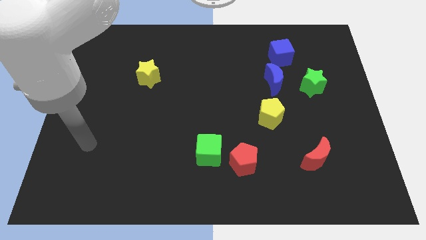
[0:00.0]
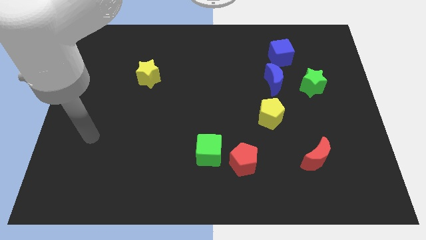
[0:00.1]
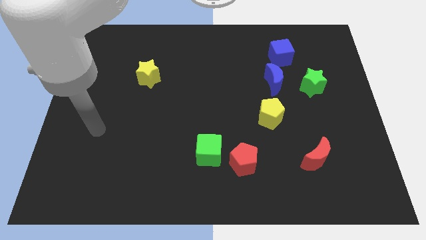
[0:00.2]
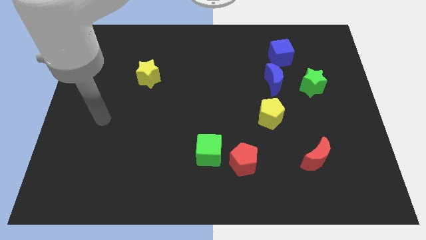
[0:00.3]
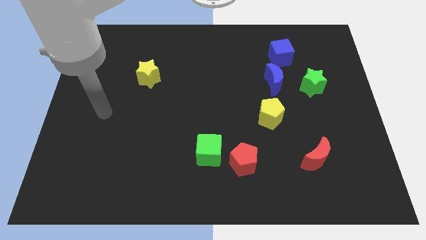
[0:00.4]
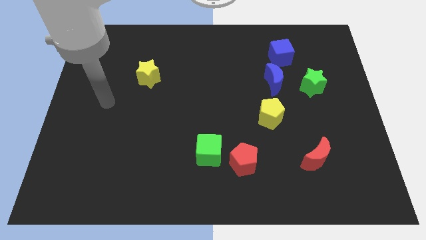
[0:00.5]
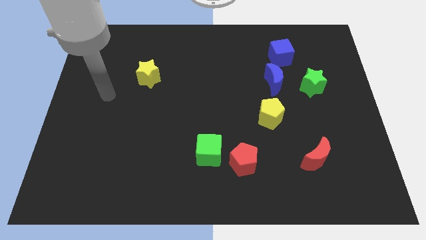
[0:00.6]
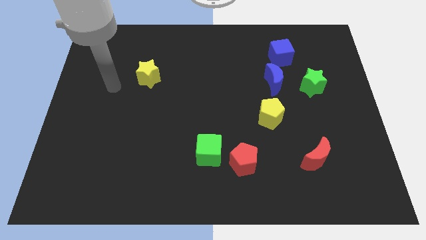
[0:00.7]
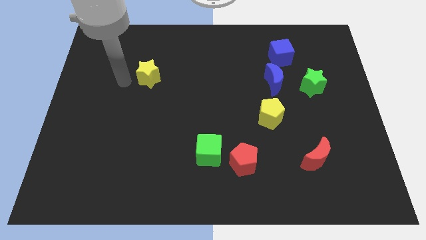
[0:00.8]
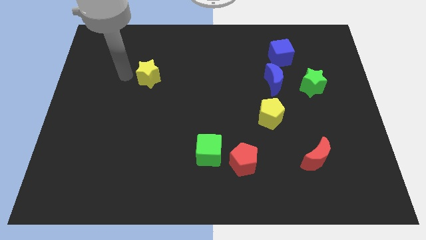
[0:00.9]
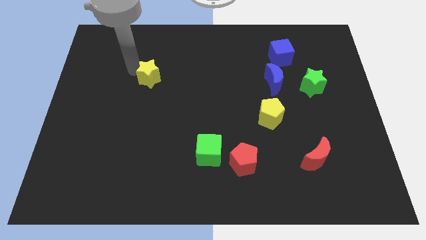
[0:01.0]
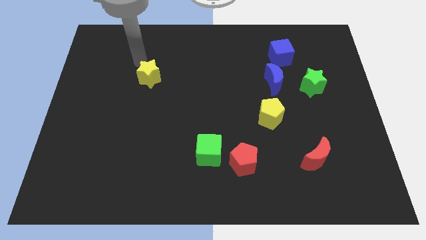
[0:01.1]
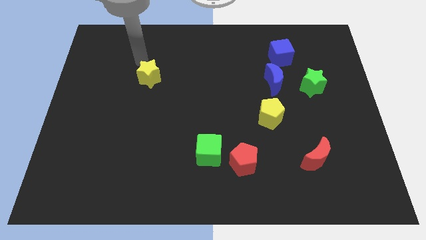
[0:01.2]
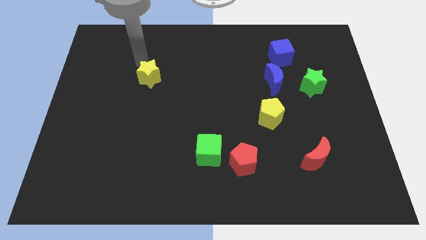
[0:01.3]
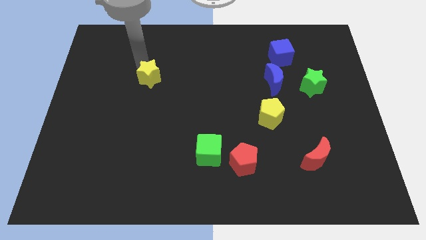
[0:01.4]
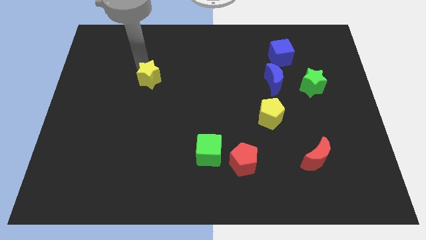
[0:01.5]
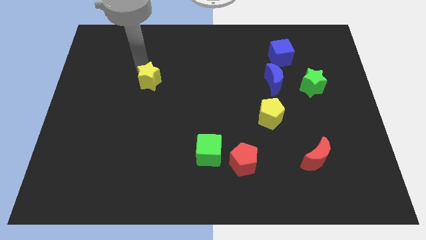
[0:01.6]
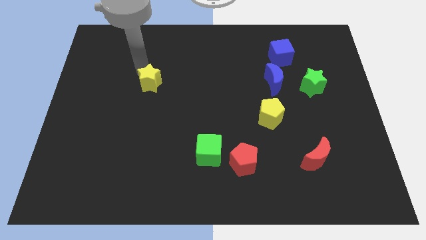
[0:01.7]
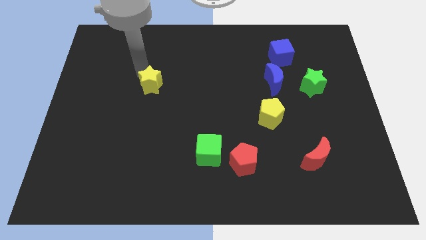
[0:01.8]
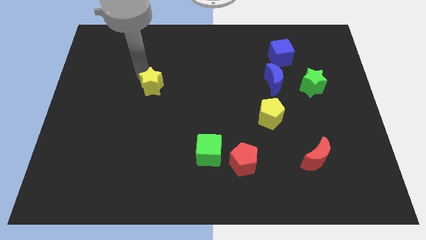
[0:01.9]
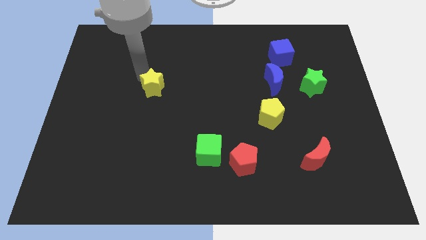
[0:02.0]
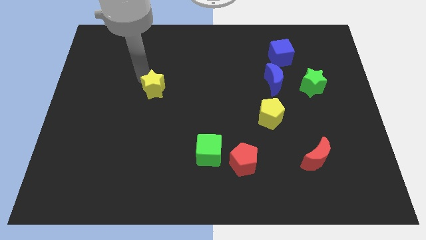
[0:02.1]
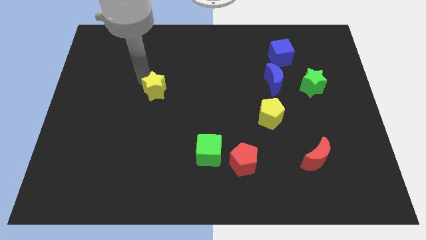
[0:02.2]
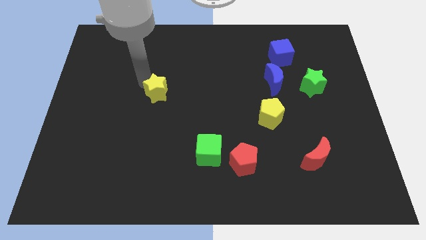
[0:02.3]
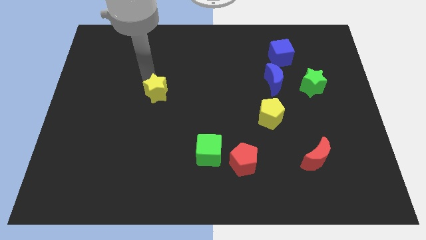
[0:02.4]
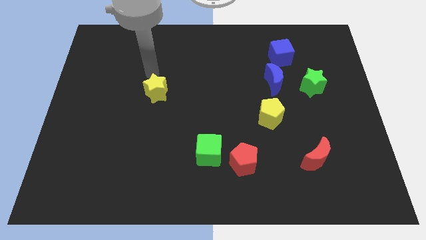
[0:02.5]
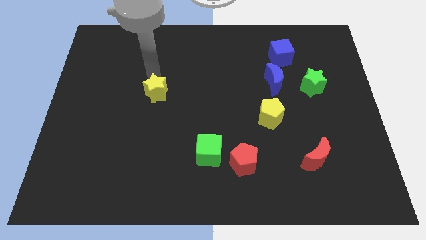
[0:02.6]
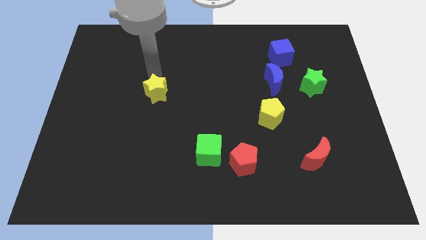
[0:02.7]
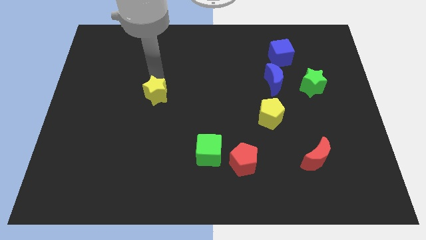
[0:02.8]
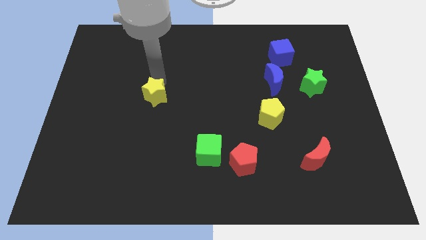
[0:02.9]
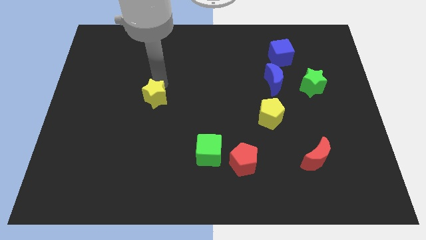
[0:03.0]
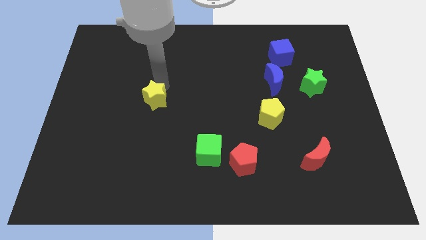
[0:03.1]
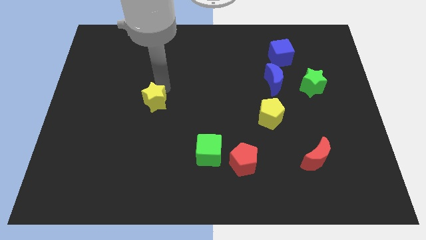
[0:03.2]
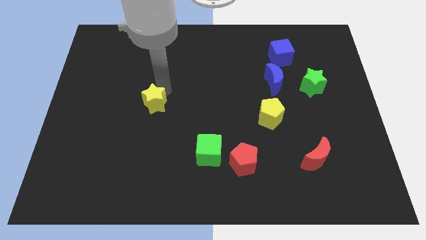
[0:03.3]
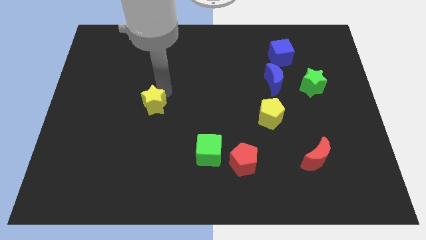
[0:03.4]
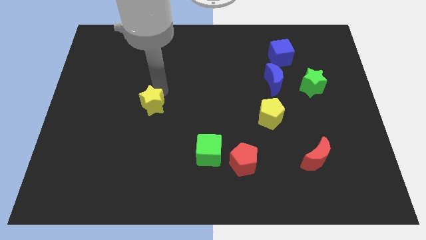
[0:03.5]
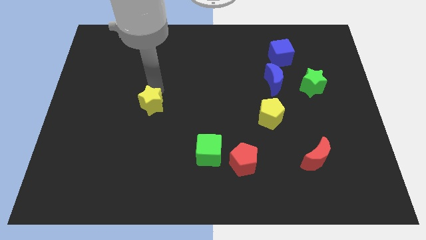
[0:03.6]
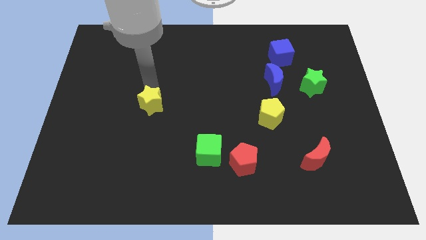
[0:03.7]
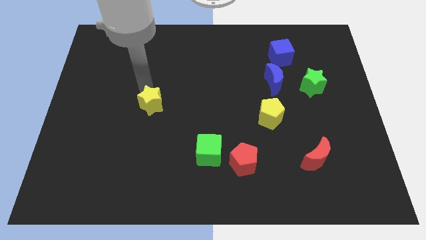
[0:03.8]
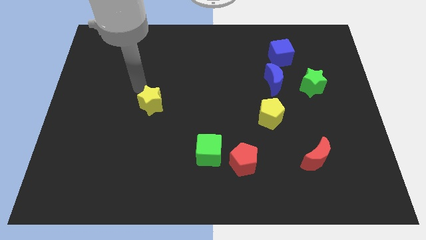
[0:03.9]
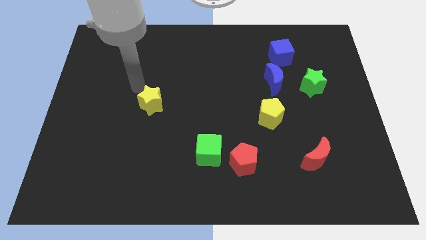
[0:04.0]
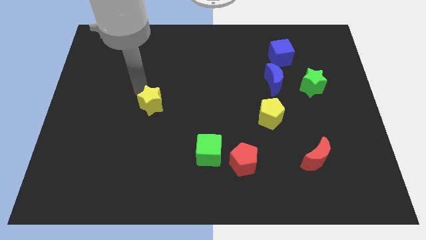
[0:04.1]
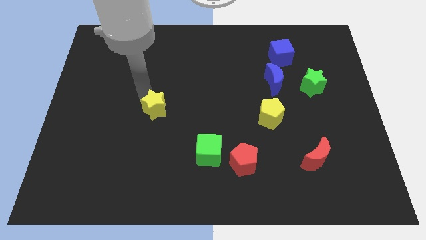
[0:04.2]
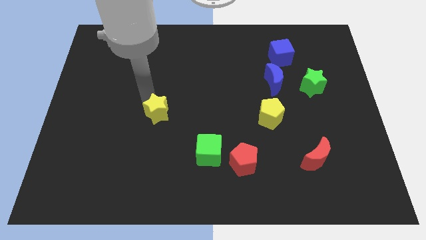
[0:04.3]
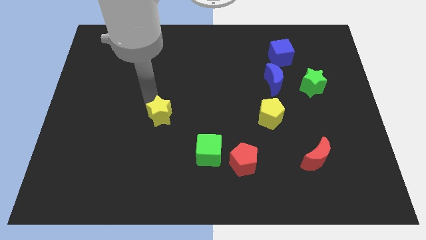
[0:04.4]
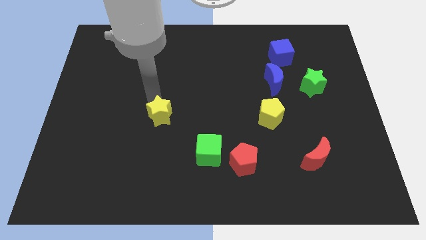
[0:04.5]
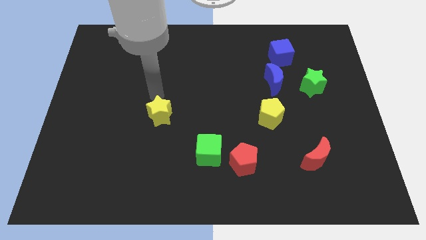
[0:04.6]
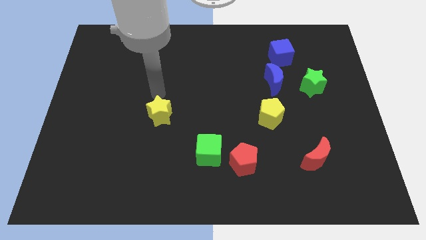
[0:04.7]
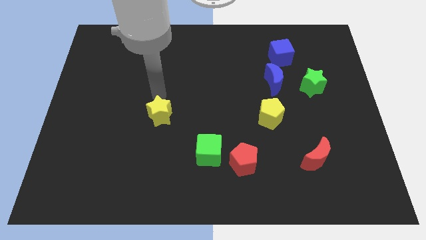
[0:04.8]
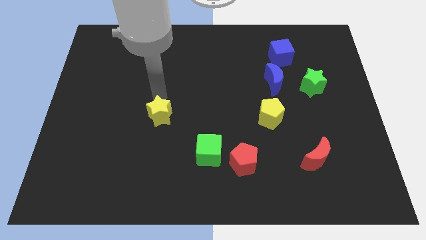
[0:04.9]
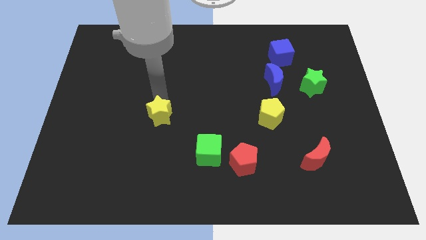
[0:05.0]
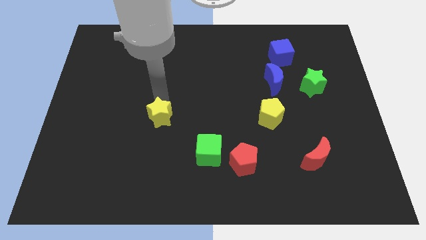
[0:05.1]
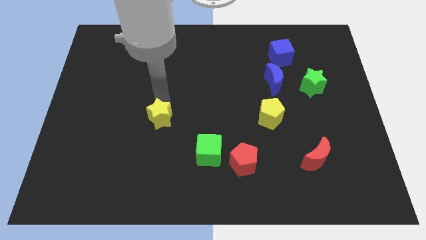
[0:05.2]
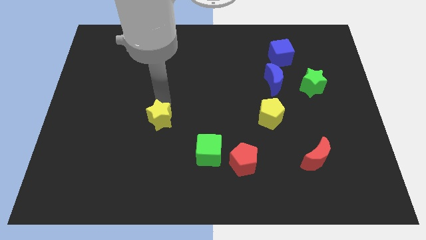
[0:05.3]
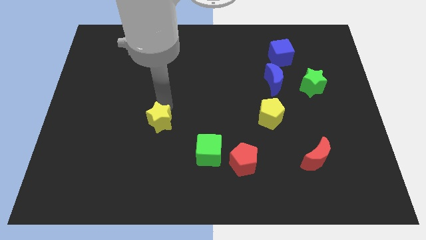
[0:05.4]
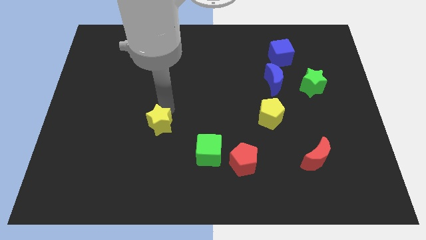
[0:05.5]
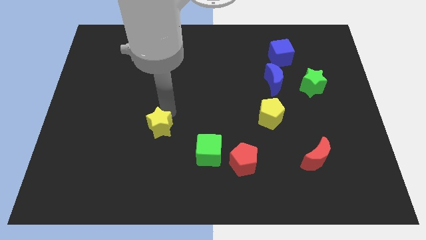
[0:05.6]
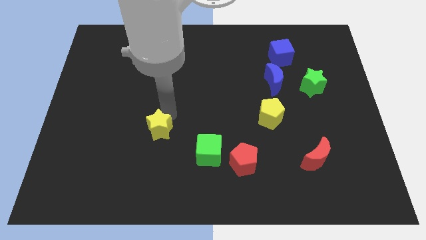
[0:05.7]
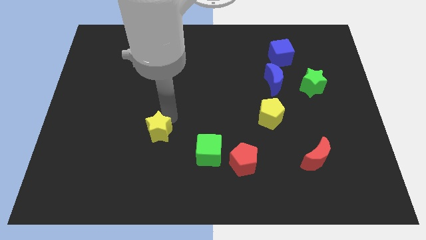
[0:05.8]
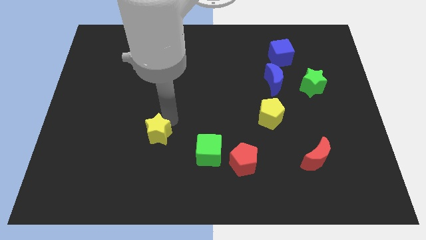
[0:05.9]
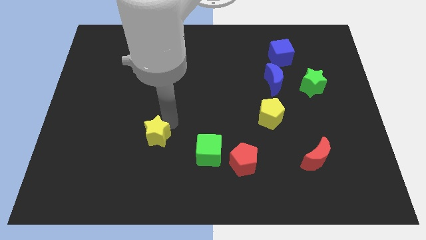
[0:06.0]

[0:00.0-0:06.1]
push the yellow star to the left side of the green cube

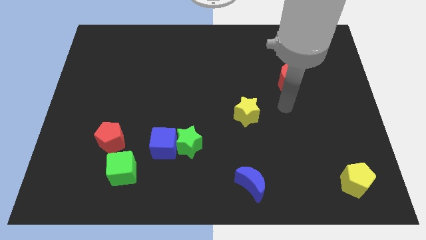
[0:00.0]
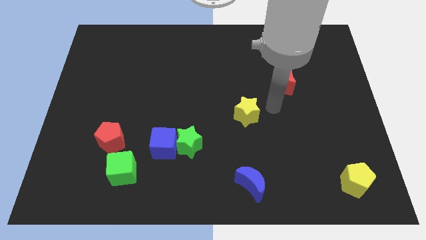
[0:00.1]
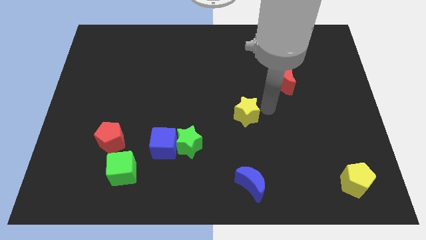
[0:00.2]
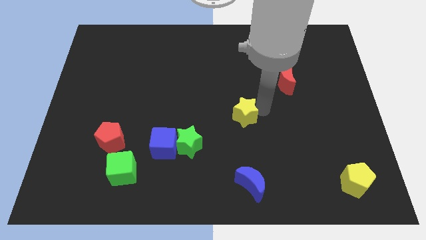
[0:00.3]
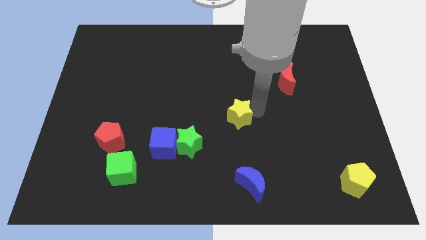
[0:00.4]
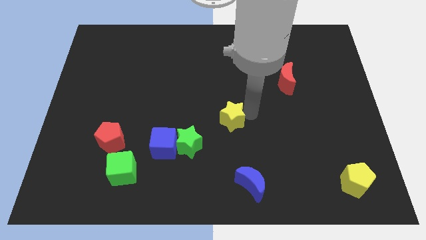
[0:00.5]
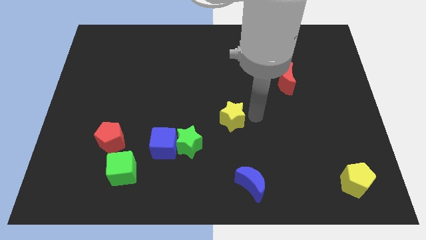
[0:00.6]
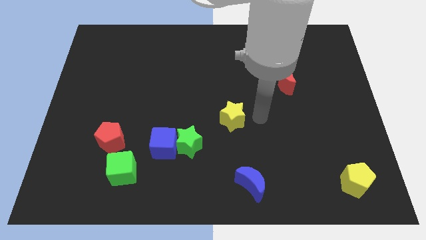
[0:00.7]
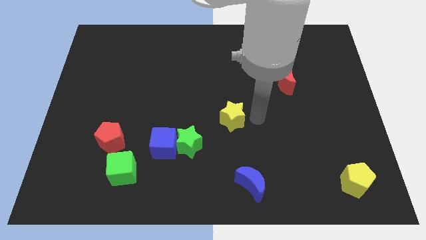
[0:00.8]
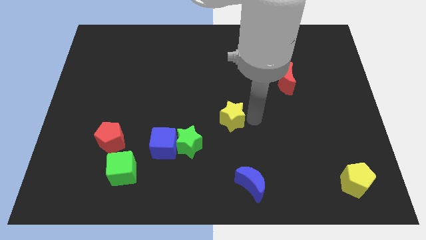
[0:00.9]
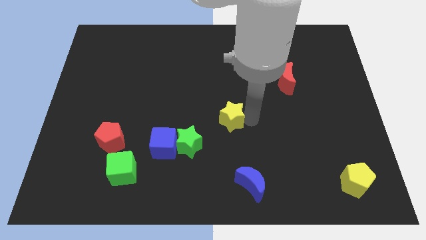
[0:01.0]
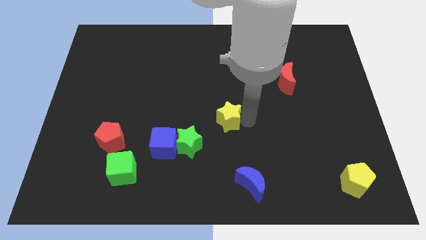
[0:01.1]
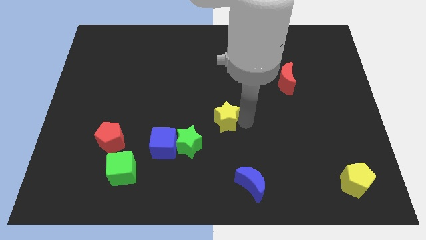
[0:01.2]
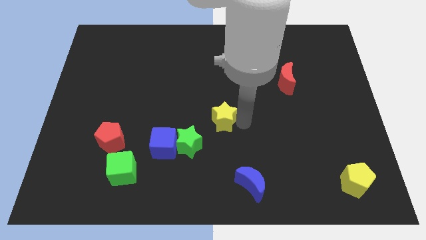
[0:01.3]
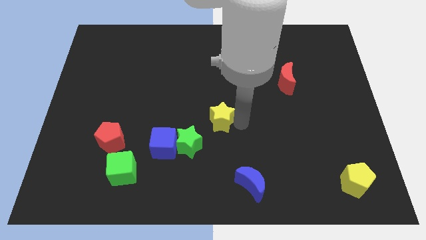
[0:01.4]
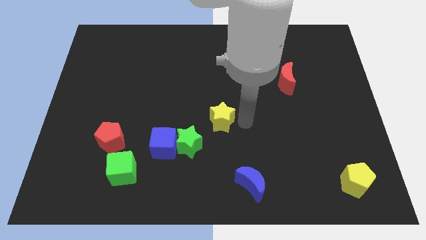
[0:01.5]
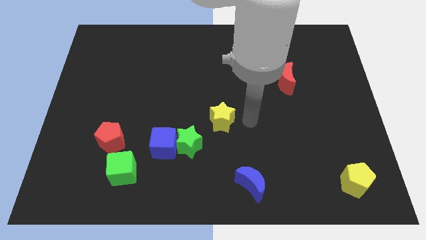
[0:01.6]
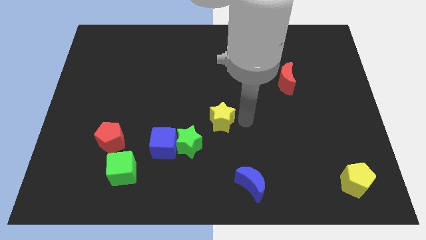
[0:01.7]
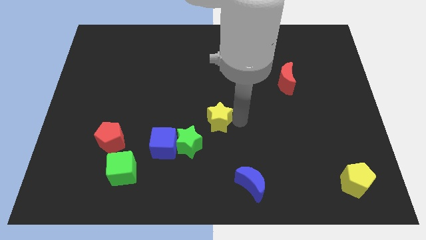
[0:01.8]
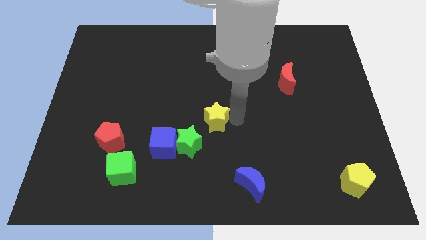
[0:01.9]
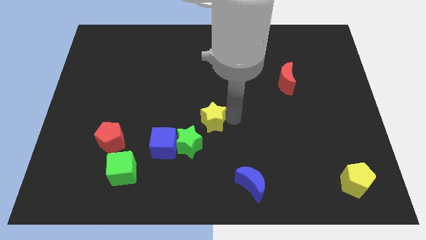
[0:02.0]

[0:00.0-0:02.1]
slide the yellow star diagonally up and to the right of the blue cube
